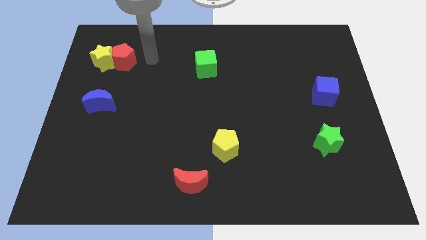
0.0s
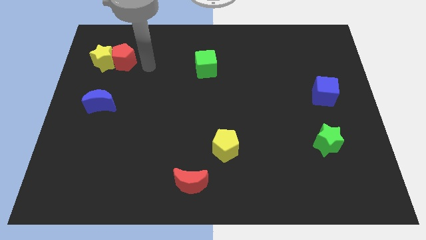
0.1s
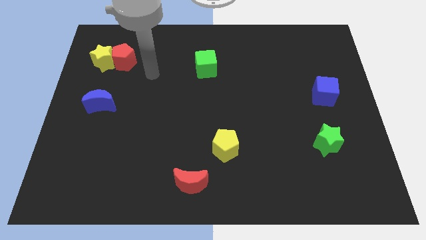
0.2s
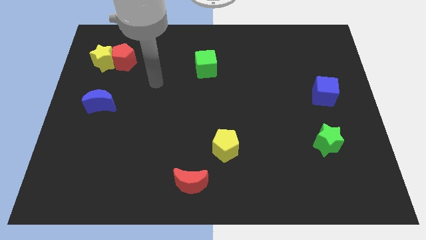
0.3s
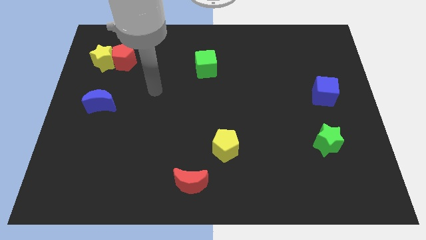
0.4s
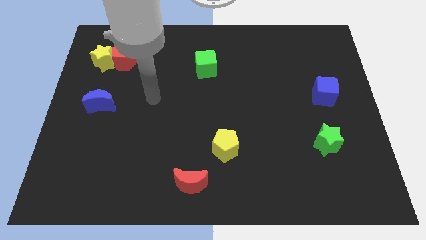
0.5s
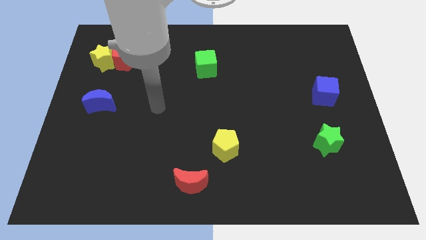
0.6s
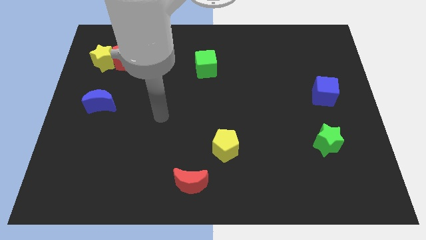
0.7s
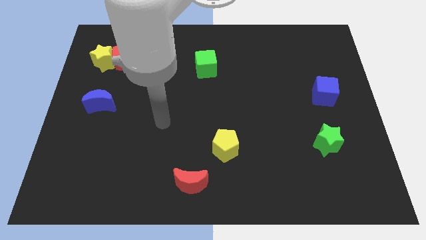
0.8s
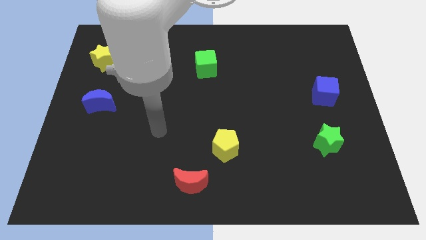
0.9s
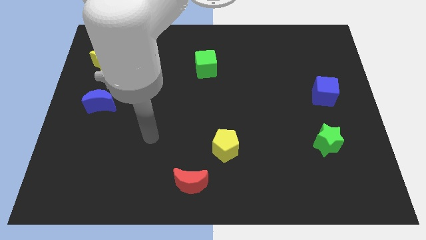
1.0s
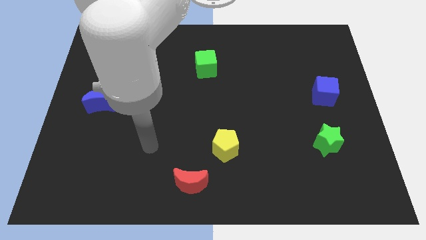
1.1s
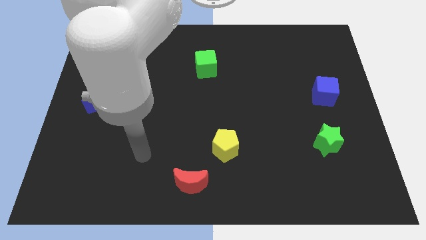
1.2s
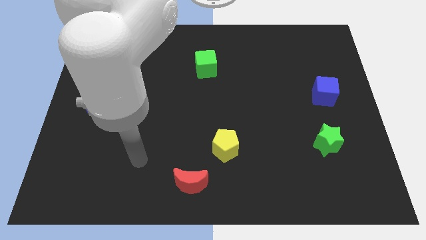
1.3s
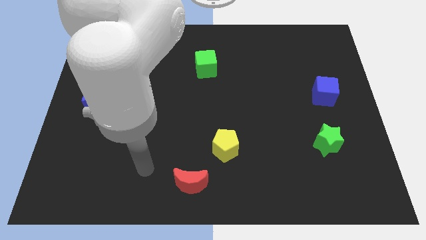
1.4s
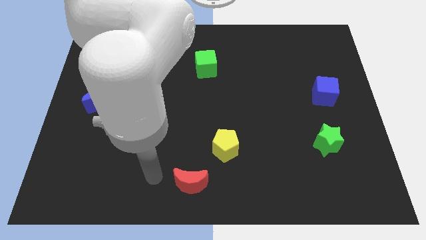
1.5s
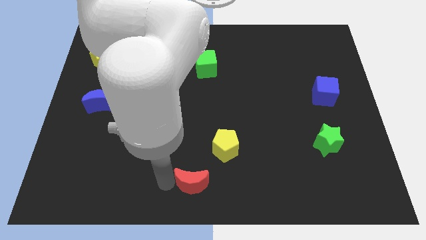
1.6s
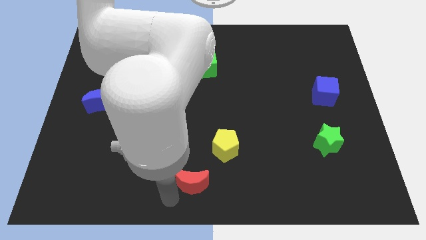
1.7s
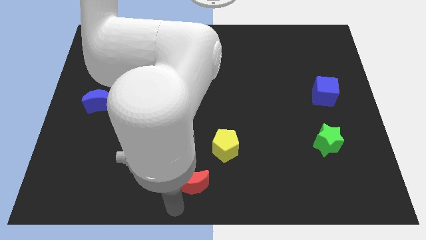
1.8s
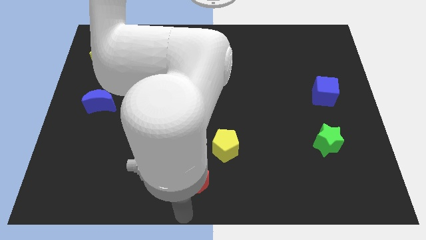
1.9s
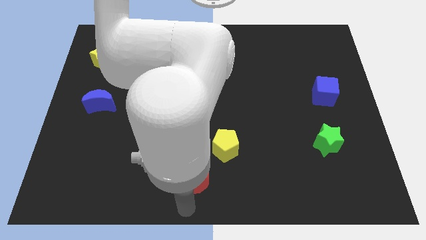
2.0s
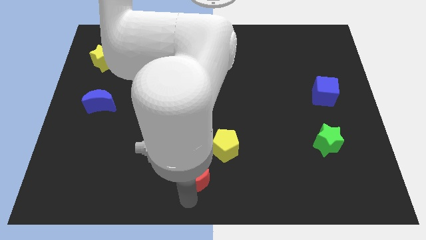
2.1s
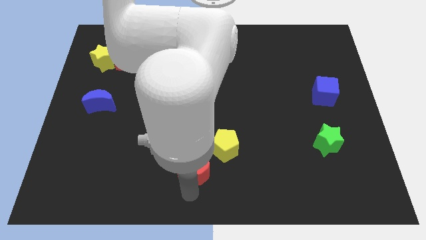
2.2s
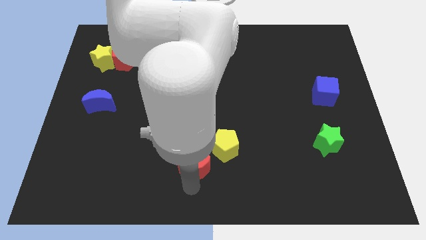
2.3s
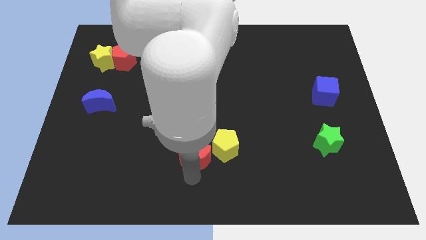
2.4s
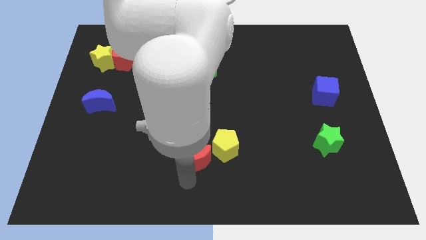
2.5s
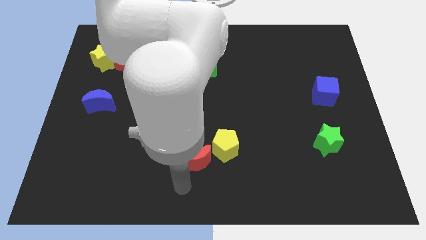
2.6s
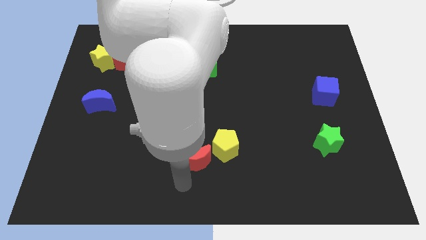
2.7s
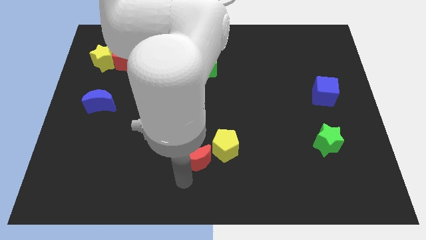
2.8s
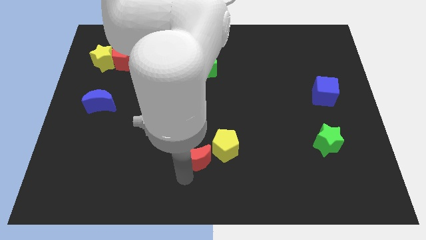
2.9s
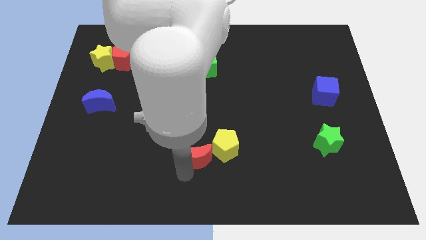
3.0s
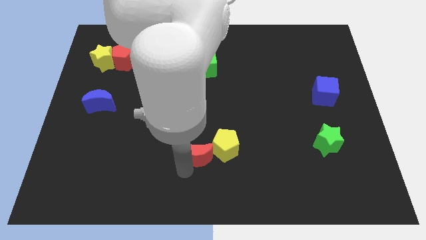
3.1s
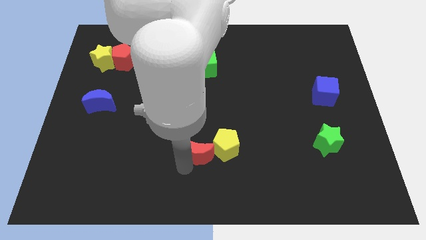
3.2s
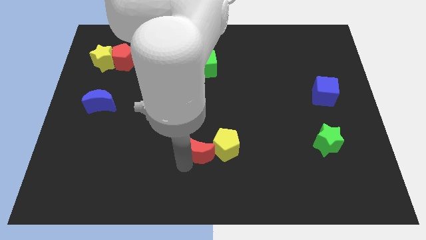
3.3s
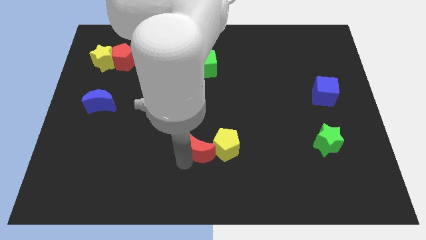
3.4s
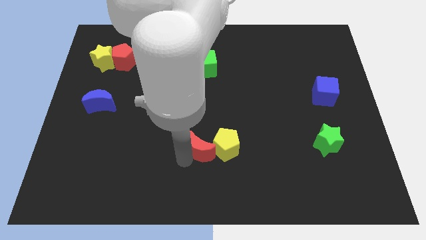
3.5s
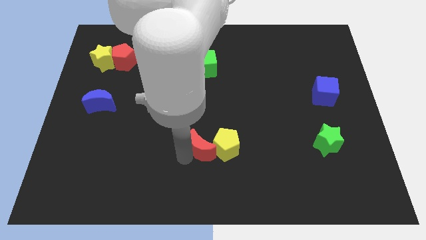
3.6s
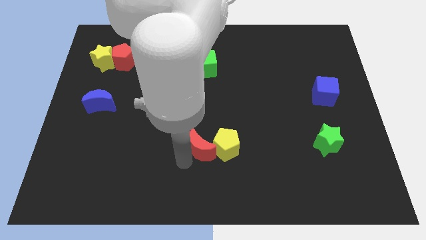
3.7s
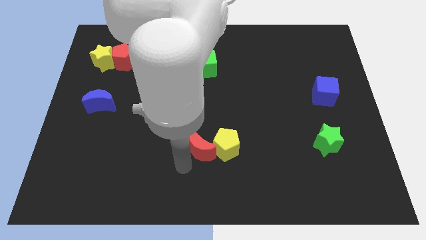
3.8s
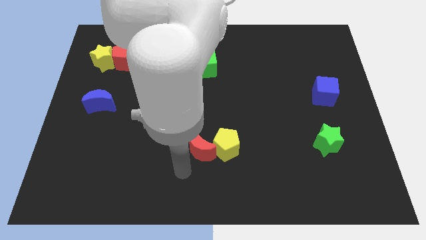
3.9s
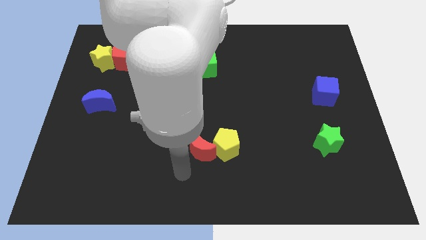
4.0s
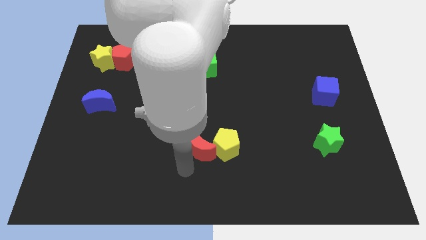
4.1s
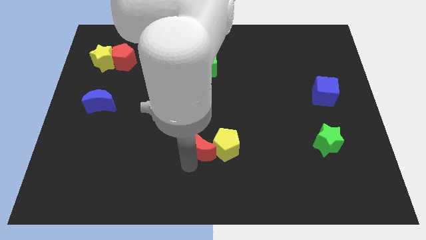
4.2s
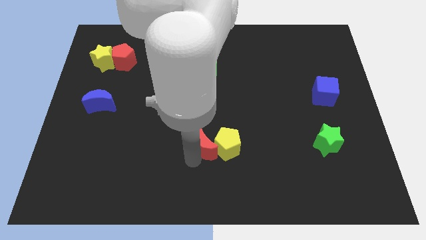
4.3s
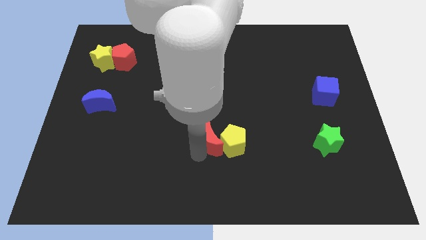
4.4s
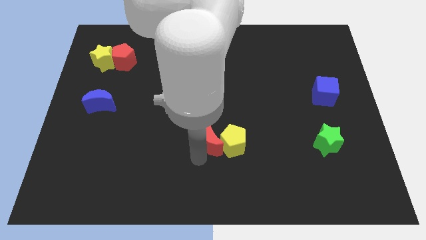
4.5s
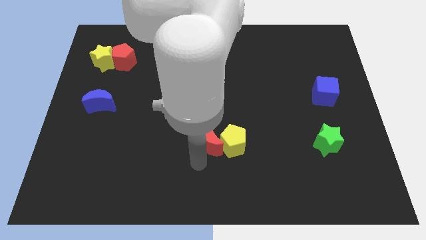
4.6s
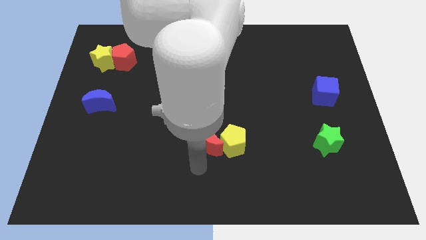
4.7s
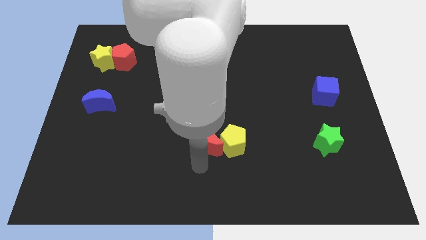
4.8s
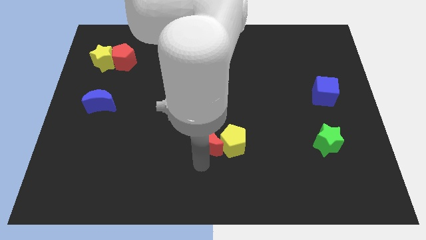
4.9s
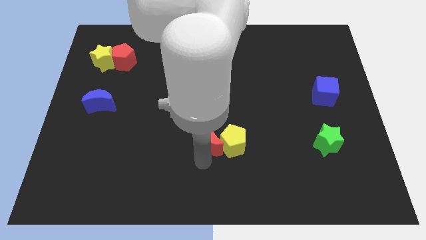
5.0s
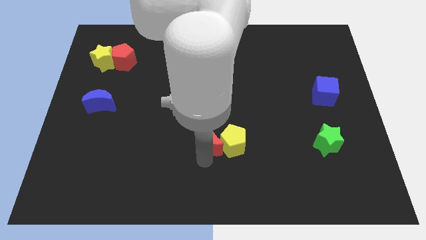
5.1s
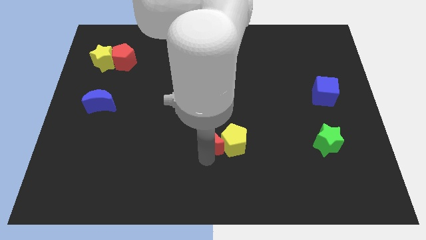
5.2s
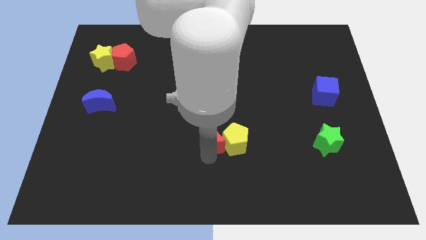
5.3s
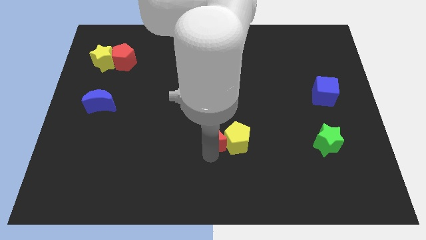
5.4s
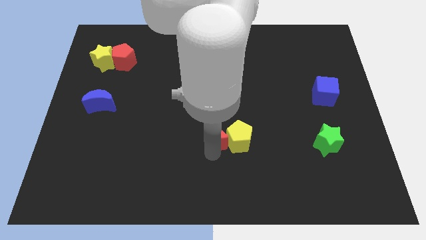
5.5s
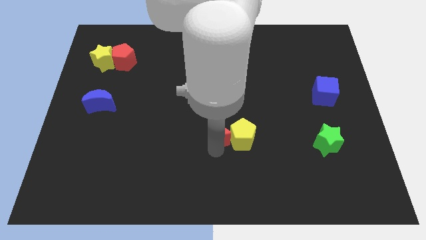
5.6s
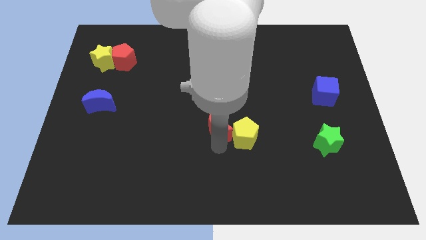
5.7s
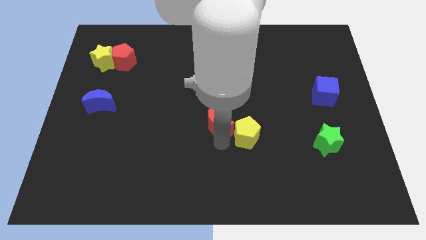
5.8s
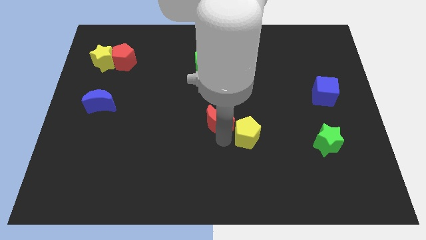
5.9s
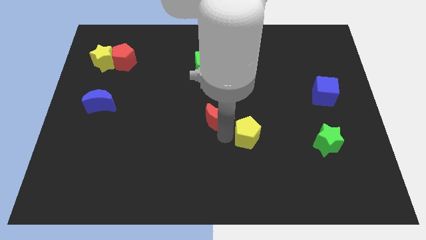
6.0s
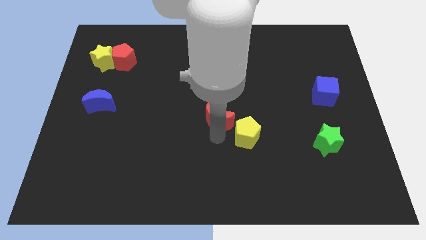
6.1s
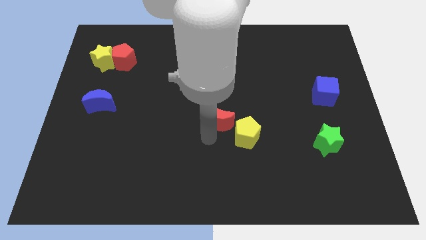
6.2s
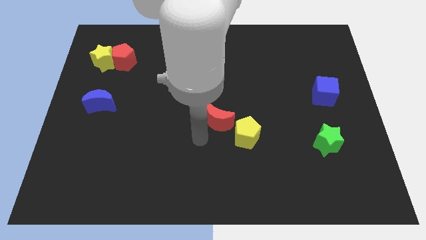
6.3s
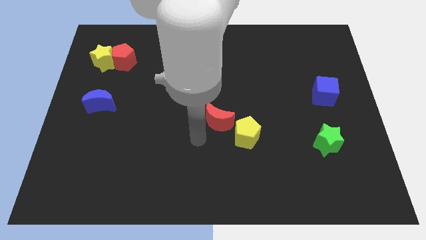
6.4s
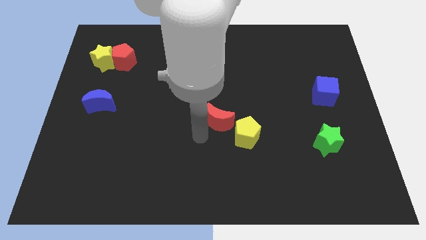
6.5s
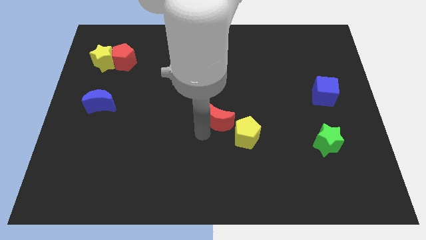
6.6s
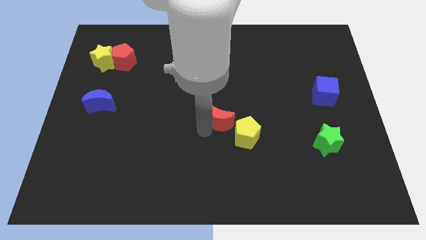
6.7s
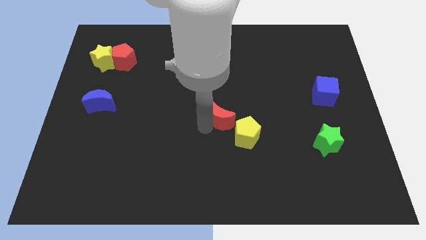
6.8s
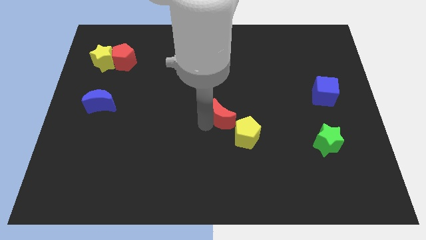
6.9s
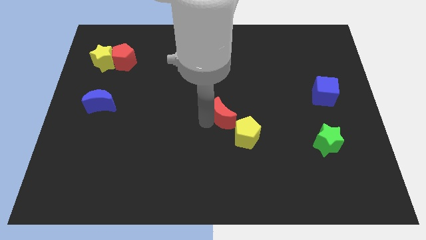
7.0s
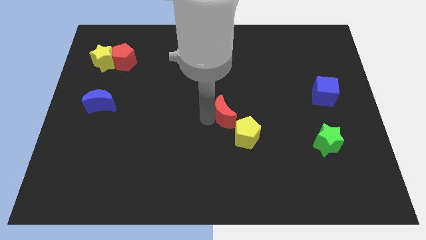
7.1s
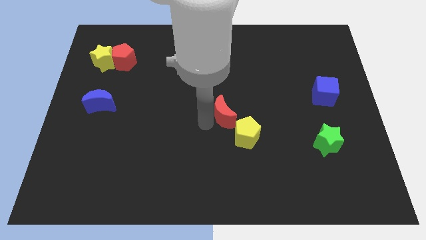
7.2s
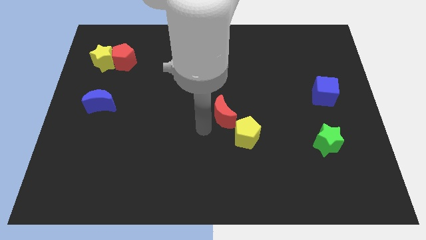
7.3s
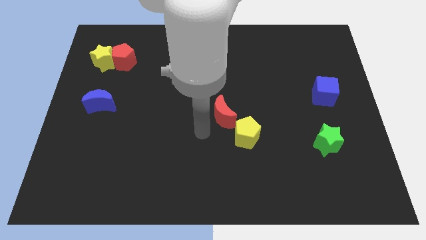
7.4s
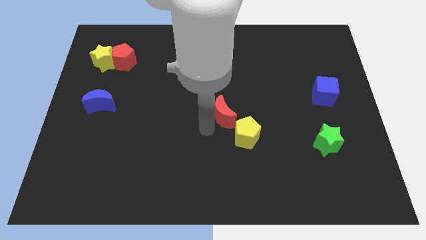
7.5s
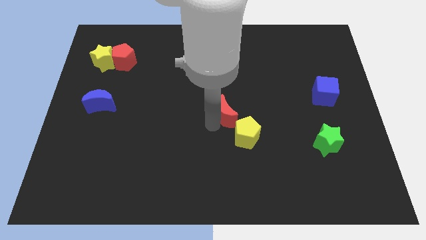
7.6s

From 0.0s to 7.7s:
move the red moon above the yellow pentagon
